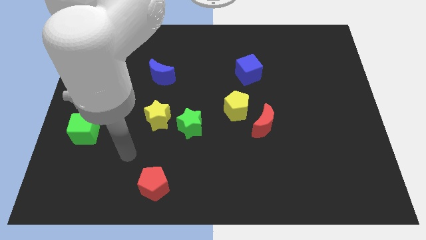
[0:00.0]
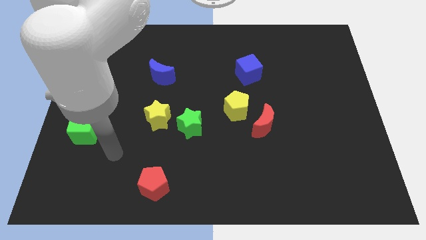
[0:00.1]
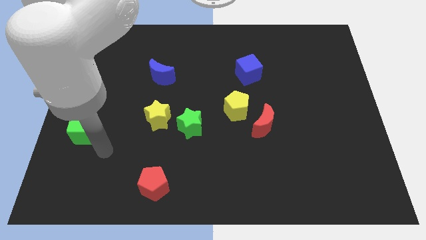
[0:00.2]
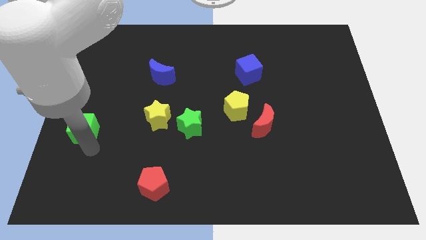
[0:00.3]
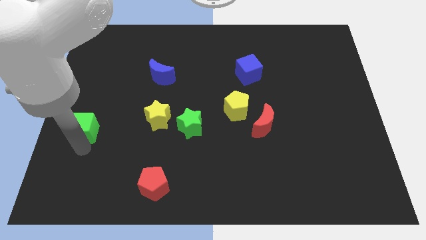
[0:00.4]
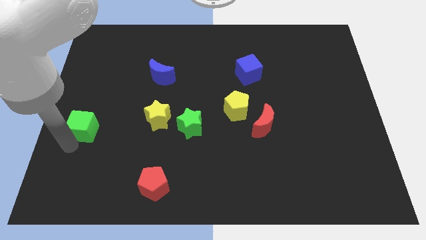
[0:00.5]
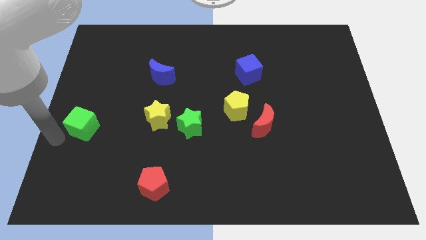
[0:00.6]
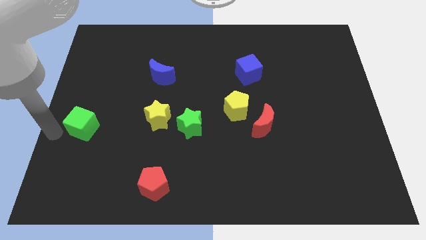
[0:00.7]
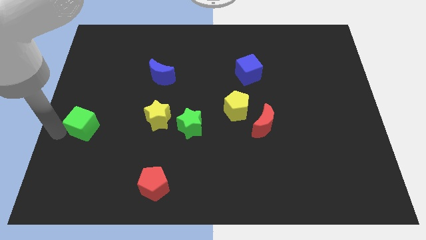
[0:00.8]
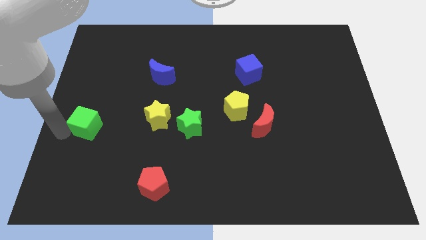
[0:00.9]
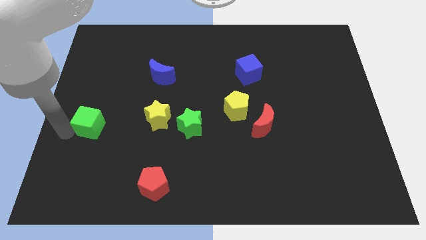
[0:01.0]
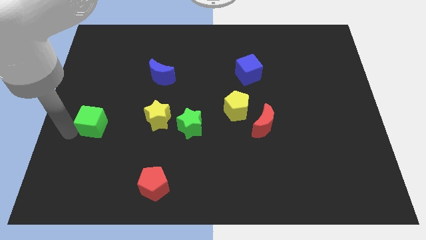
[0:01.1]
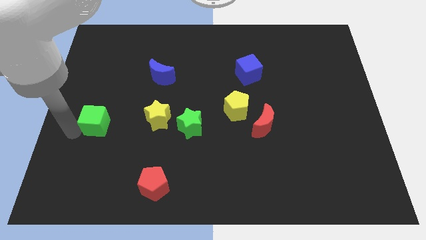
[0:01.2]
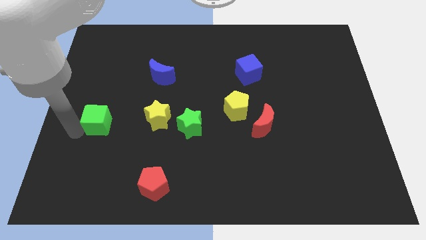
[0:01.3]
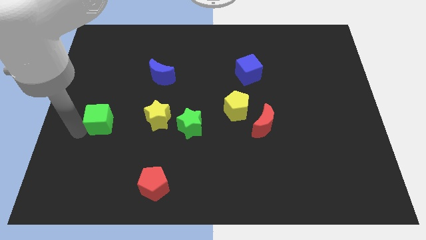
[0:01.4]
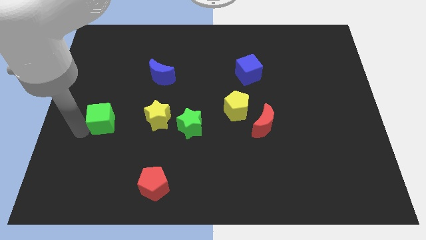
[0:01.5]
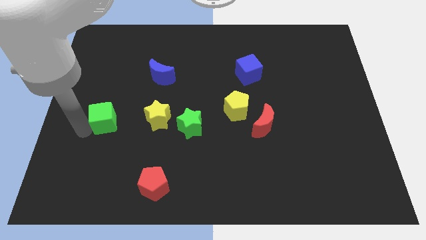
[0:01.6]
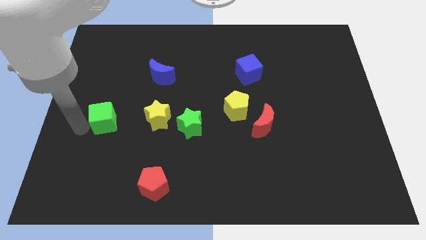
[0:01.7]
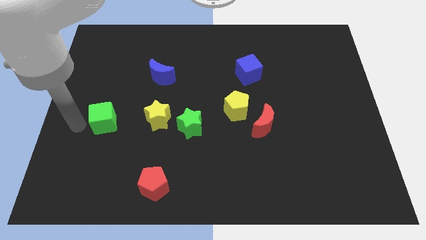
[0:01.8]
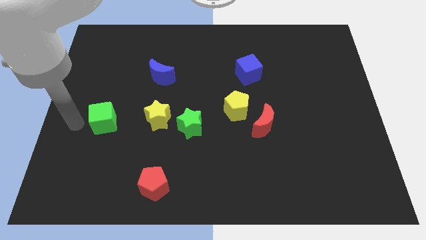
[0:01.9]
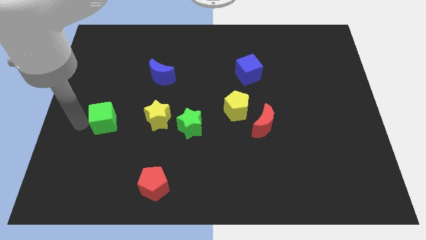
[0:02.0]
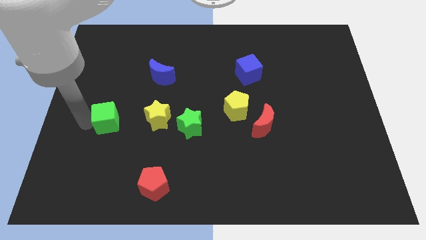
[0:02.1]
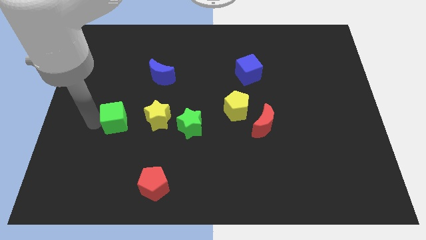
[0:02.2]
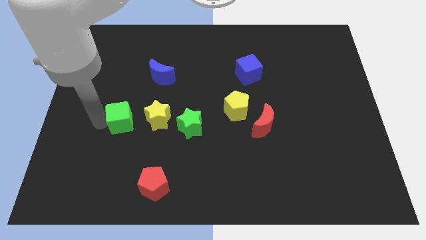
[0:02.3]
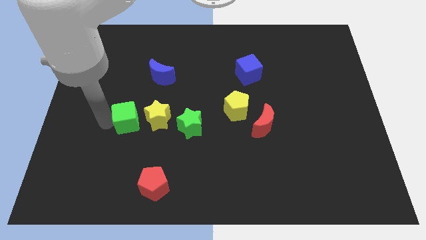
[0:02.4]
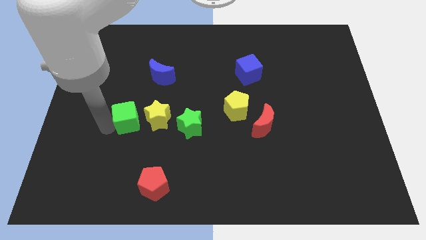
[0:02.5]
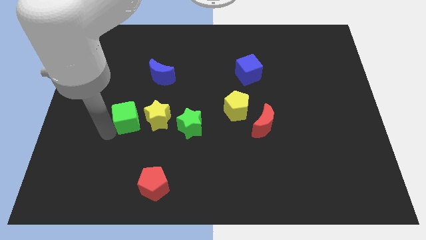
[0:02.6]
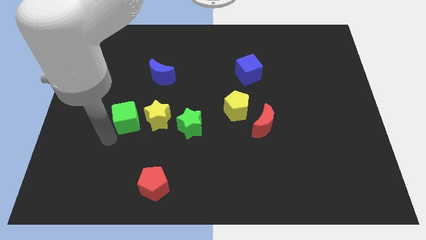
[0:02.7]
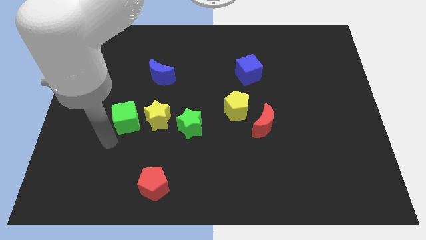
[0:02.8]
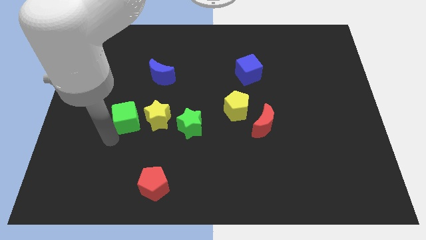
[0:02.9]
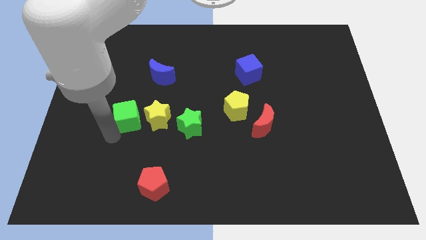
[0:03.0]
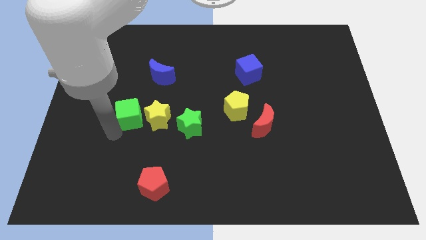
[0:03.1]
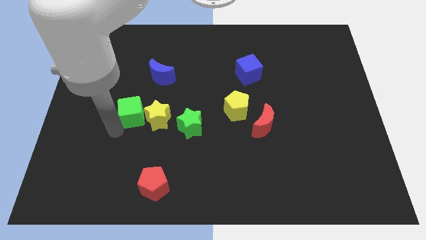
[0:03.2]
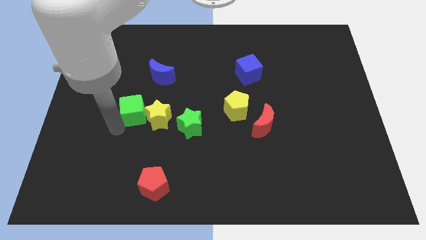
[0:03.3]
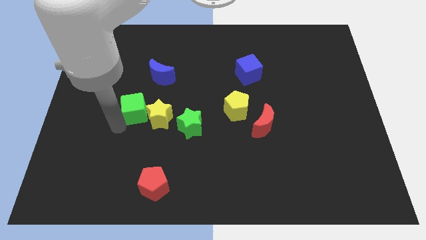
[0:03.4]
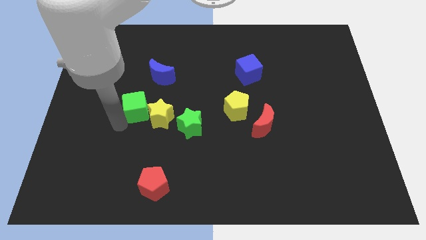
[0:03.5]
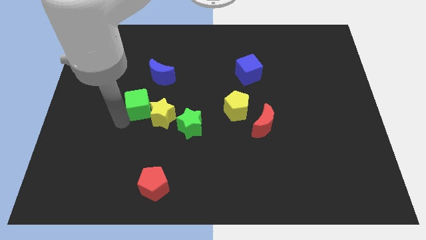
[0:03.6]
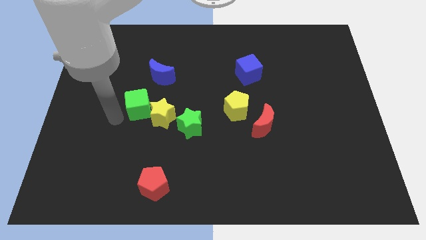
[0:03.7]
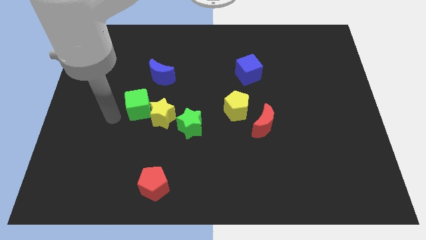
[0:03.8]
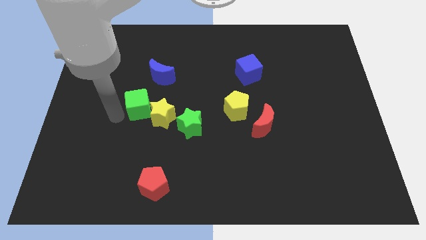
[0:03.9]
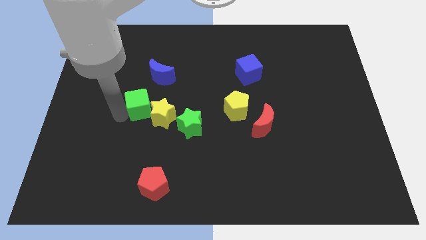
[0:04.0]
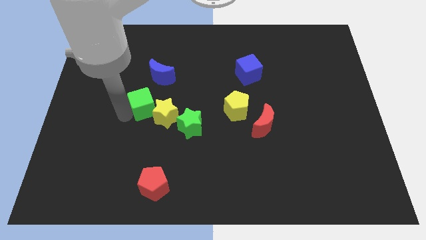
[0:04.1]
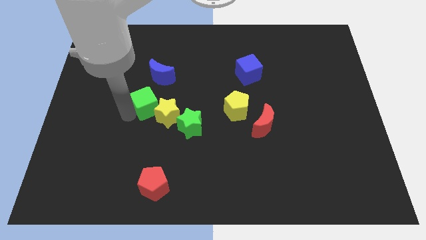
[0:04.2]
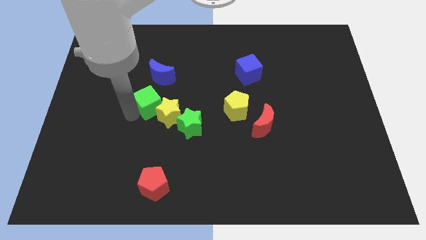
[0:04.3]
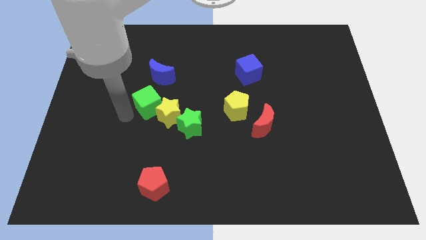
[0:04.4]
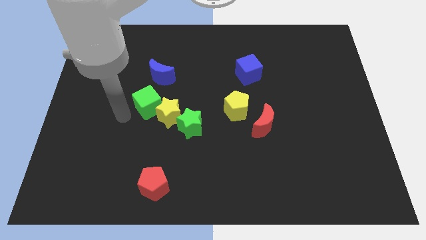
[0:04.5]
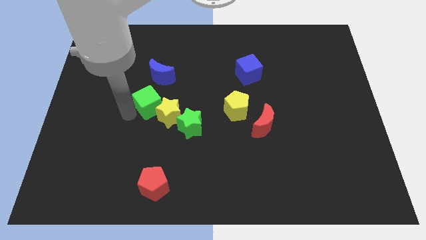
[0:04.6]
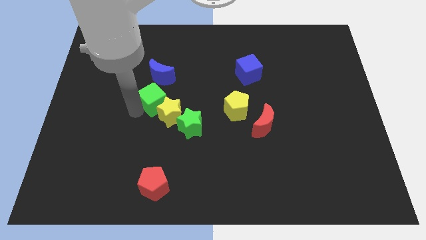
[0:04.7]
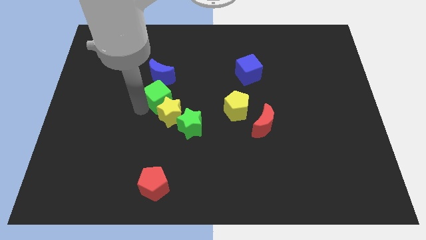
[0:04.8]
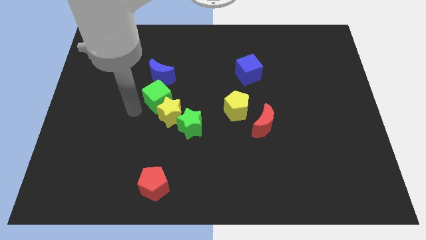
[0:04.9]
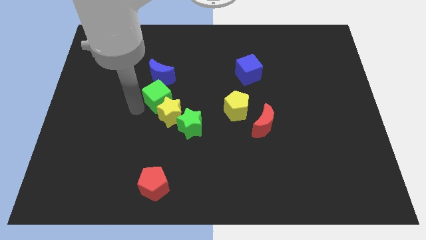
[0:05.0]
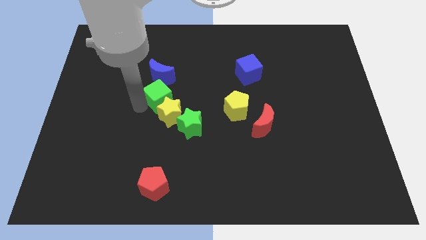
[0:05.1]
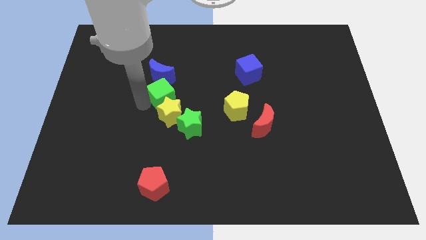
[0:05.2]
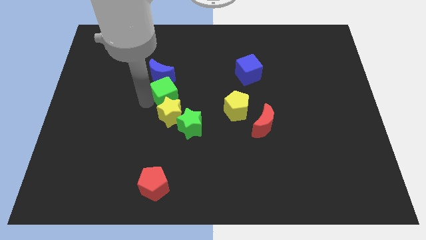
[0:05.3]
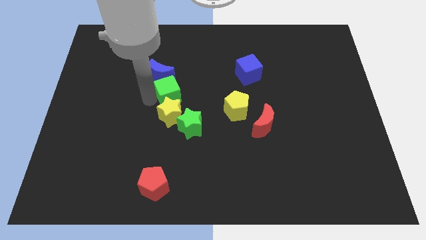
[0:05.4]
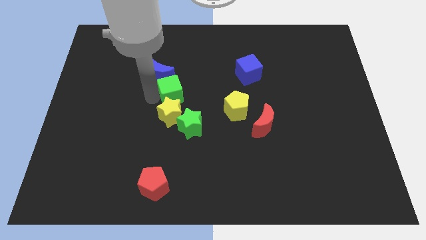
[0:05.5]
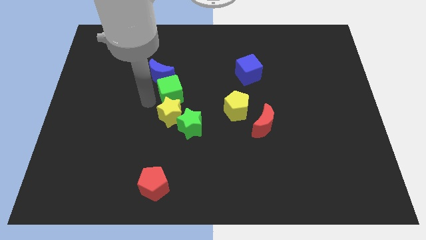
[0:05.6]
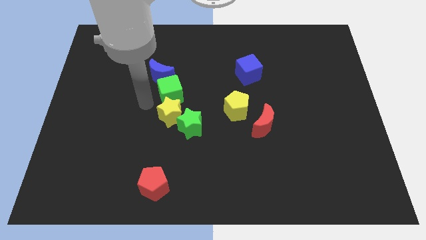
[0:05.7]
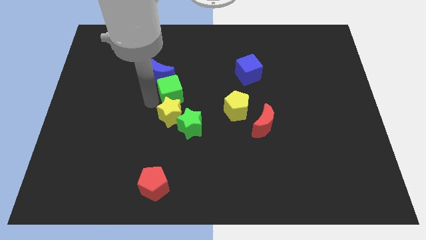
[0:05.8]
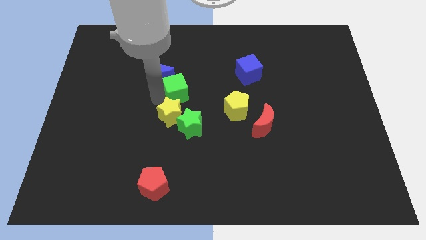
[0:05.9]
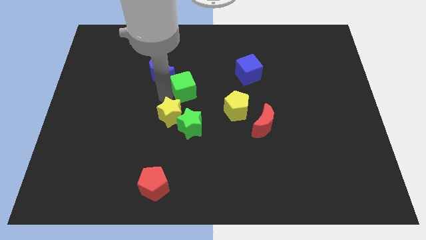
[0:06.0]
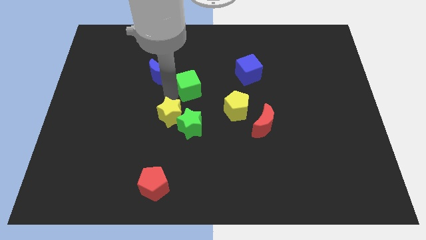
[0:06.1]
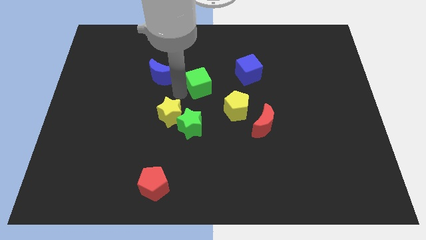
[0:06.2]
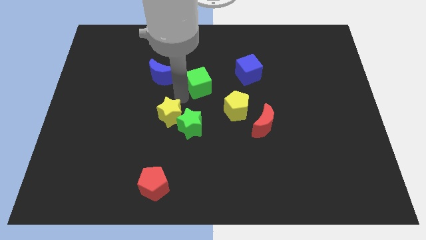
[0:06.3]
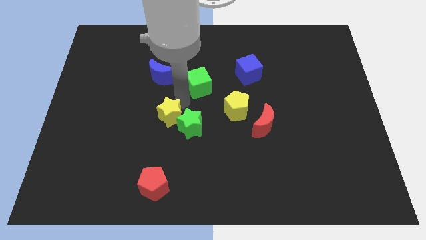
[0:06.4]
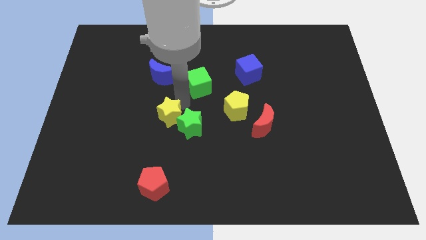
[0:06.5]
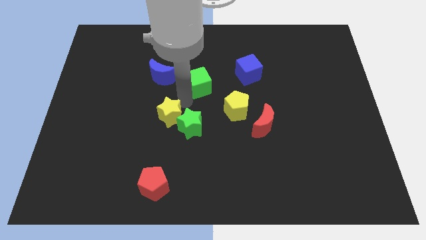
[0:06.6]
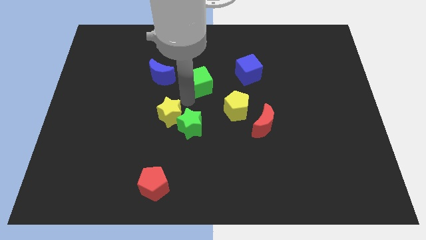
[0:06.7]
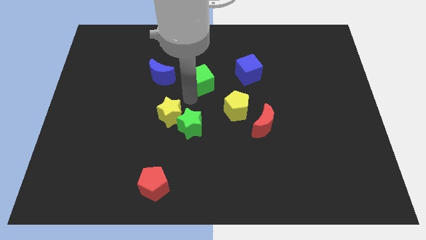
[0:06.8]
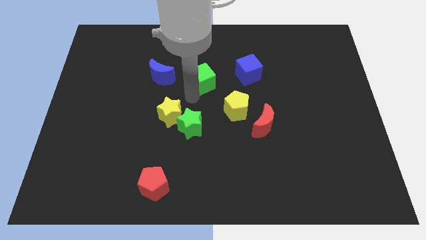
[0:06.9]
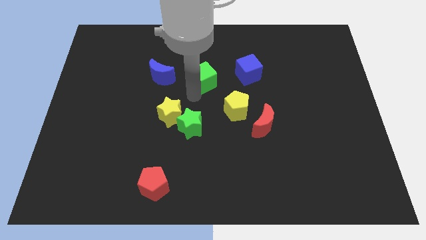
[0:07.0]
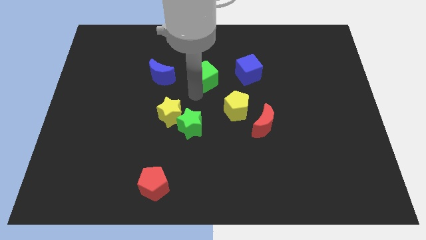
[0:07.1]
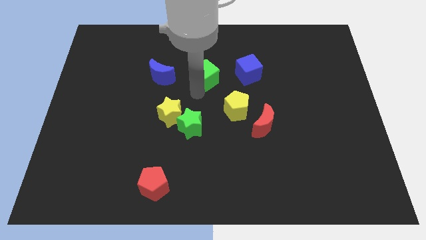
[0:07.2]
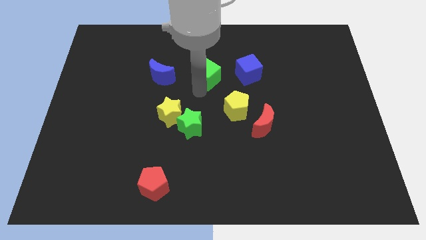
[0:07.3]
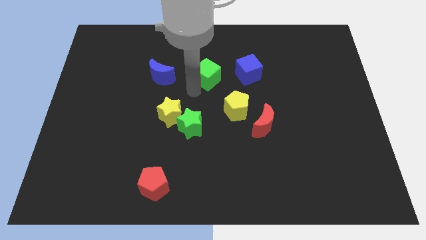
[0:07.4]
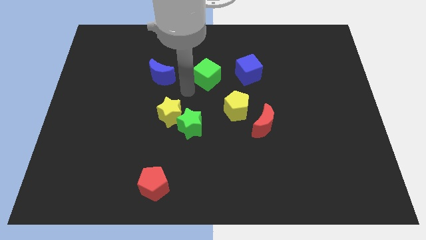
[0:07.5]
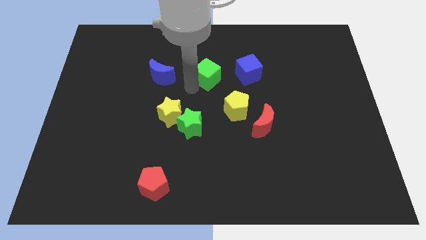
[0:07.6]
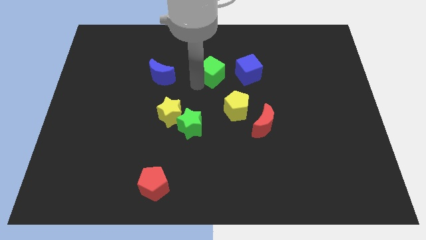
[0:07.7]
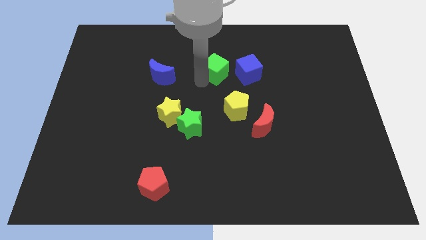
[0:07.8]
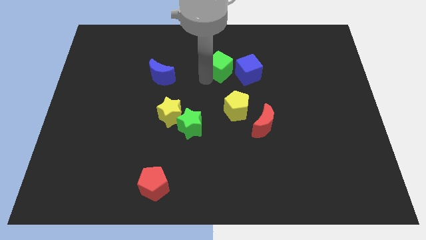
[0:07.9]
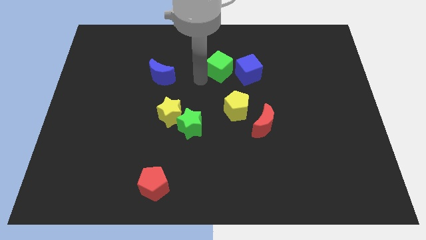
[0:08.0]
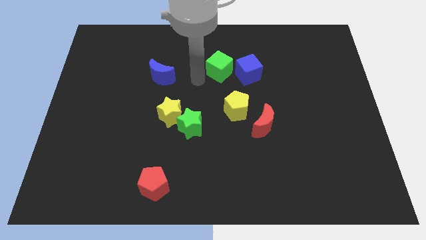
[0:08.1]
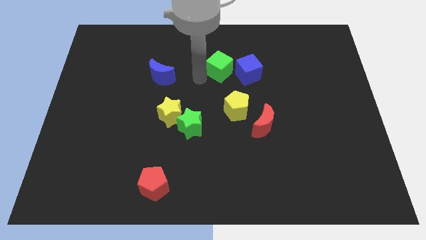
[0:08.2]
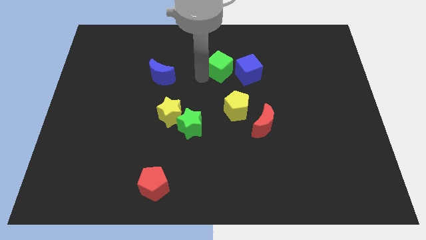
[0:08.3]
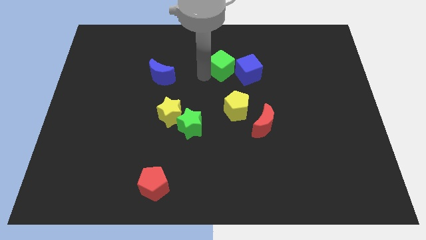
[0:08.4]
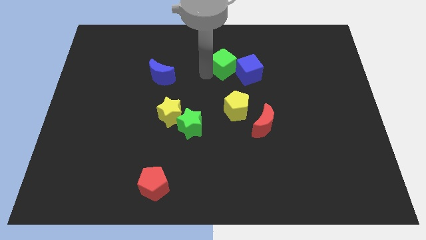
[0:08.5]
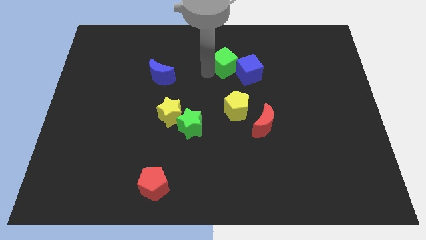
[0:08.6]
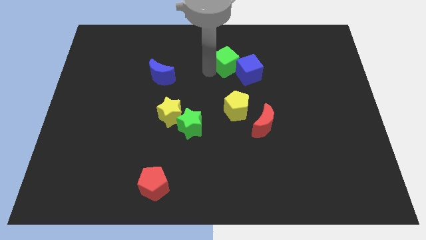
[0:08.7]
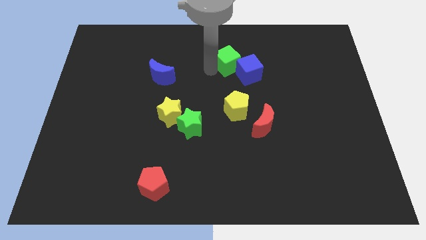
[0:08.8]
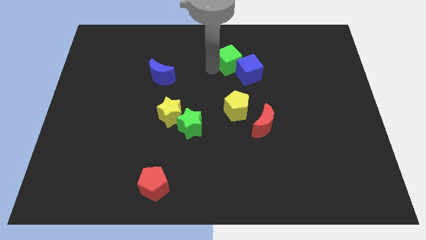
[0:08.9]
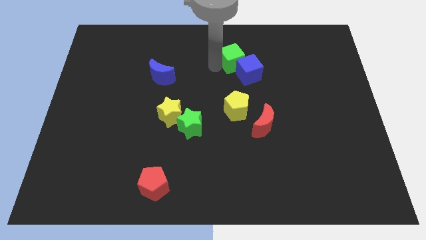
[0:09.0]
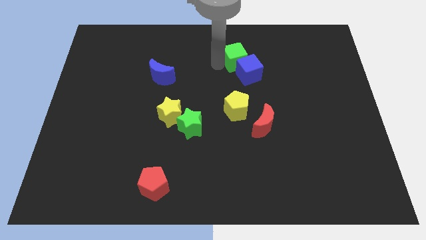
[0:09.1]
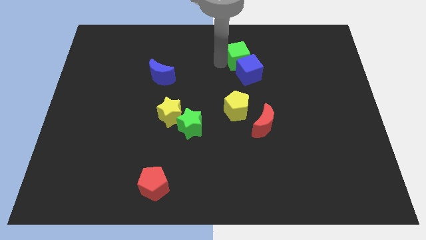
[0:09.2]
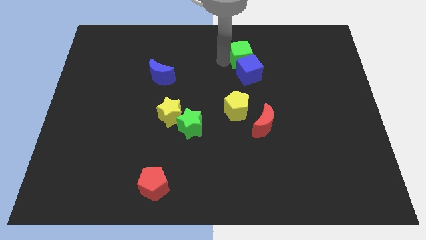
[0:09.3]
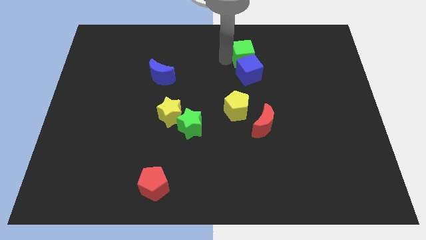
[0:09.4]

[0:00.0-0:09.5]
push the green cube diagonally up and to the right of the blue cube
